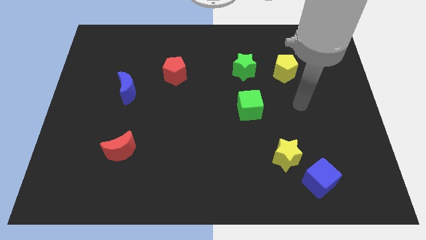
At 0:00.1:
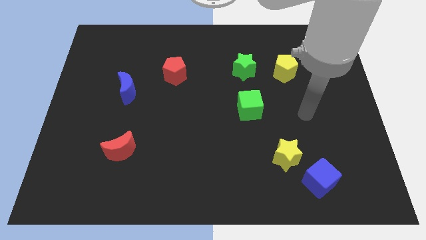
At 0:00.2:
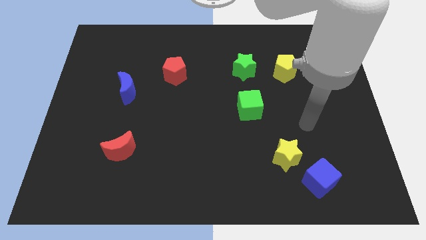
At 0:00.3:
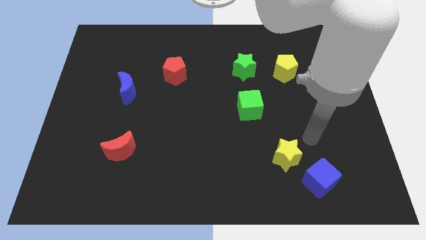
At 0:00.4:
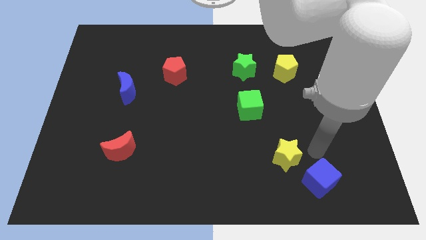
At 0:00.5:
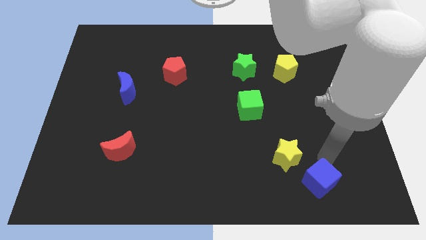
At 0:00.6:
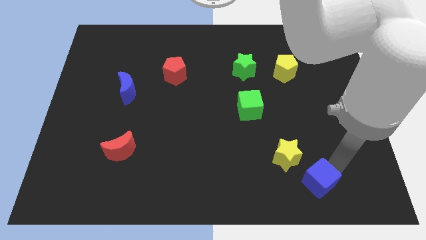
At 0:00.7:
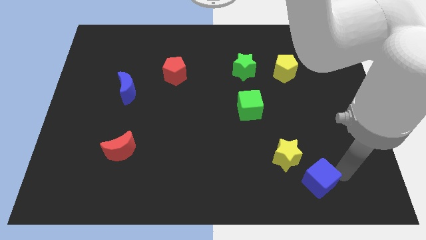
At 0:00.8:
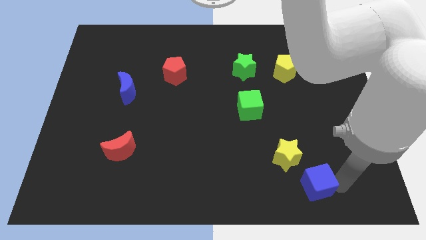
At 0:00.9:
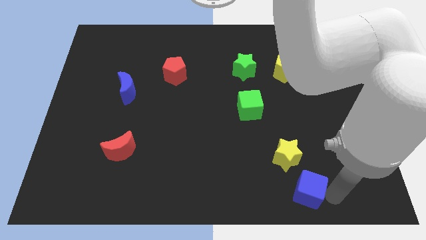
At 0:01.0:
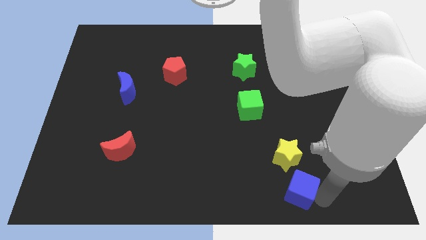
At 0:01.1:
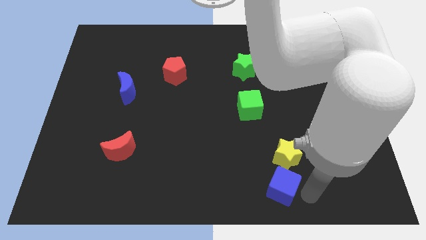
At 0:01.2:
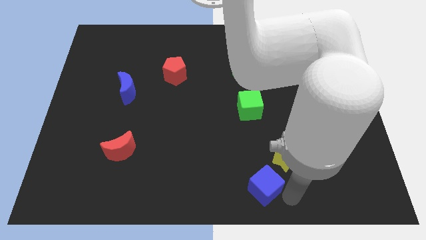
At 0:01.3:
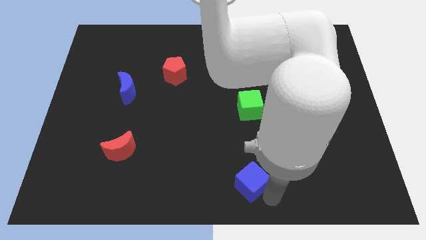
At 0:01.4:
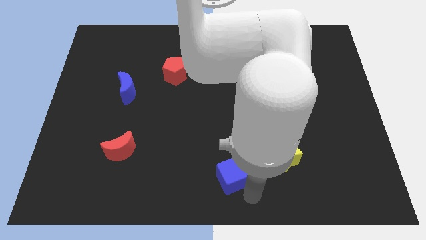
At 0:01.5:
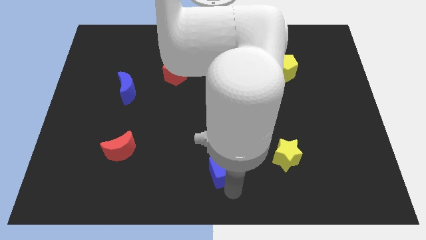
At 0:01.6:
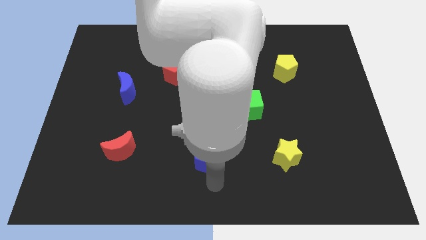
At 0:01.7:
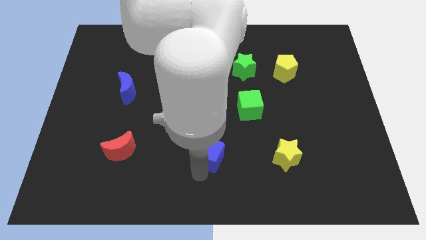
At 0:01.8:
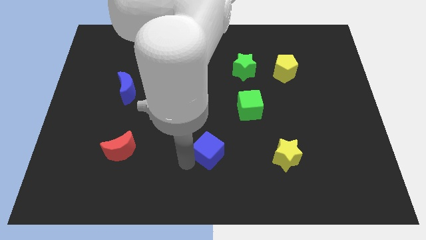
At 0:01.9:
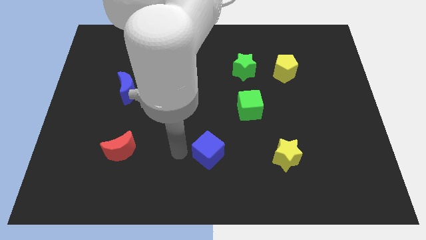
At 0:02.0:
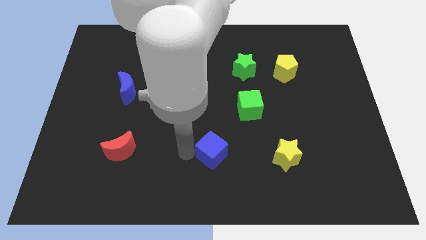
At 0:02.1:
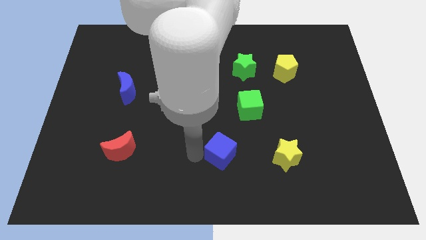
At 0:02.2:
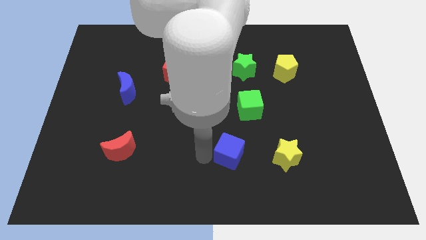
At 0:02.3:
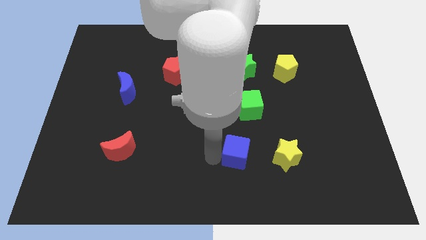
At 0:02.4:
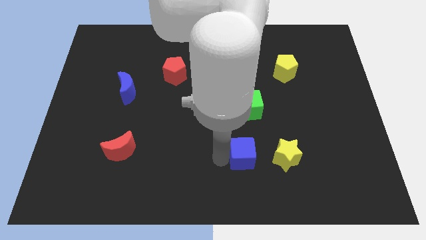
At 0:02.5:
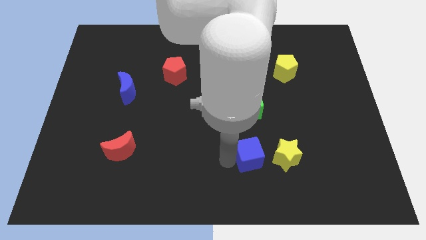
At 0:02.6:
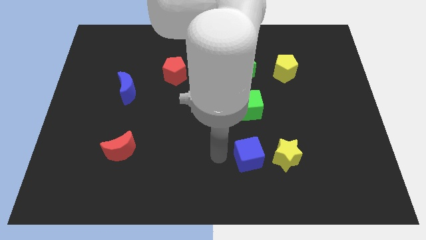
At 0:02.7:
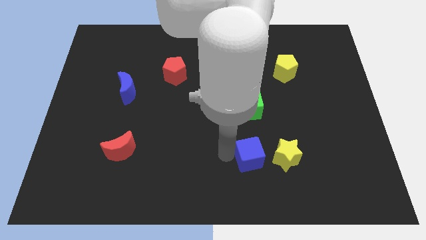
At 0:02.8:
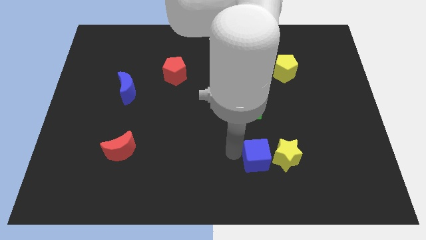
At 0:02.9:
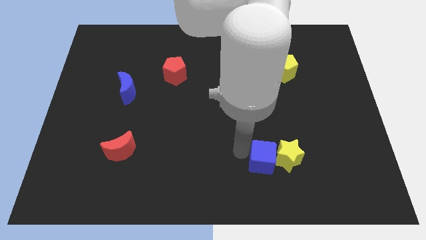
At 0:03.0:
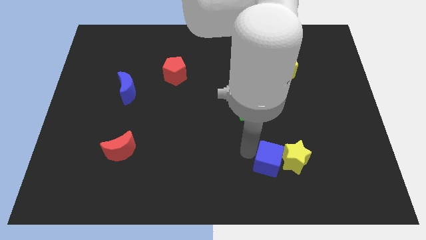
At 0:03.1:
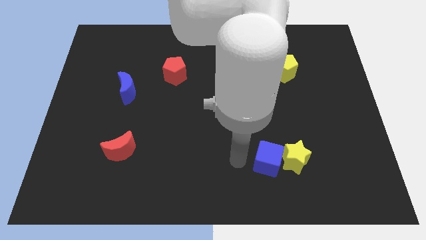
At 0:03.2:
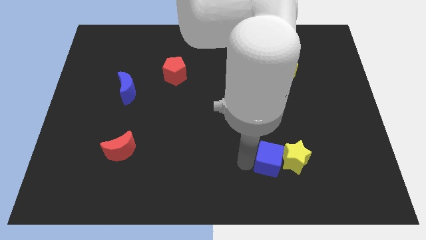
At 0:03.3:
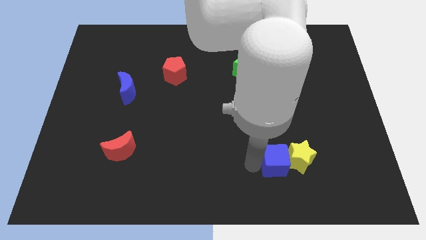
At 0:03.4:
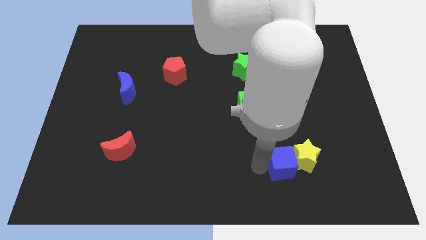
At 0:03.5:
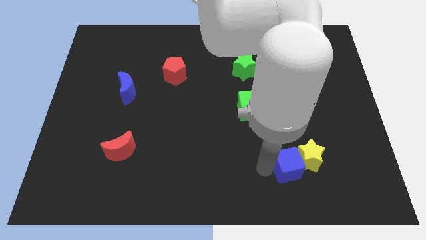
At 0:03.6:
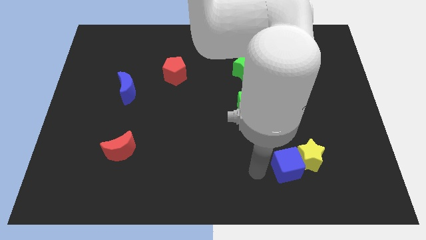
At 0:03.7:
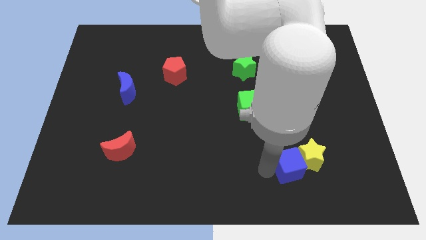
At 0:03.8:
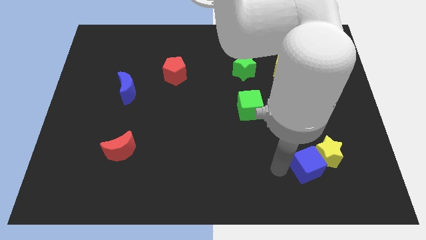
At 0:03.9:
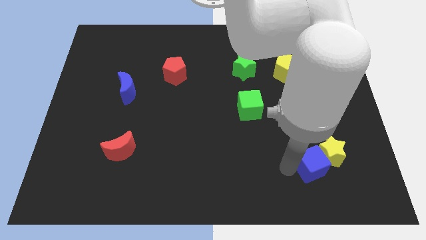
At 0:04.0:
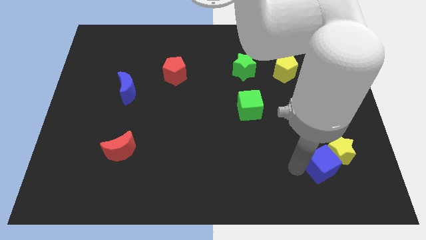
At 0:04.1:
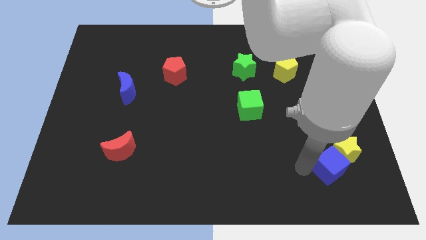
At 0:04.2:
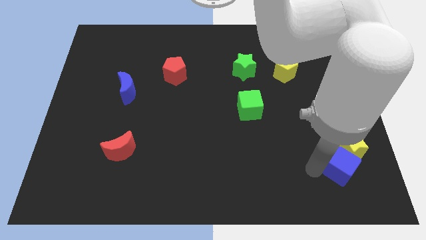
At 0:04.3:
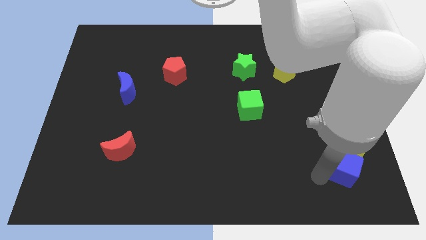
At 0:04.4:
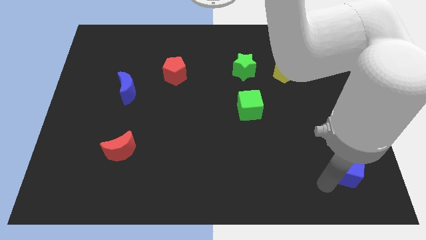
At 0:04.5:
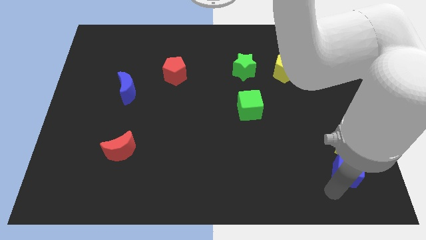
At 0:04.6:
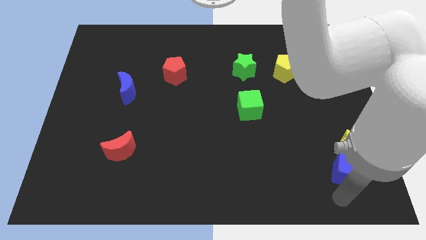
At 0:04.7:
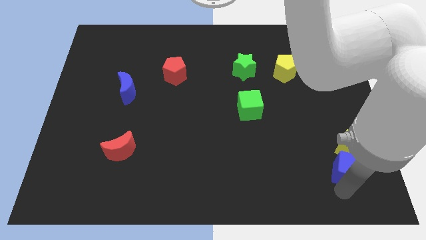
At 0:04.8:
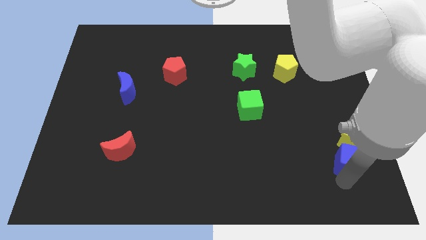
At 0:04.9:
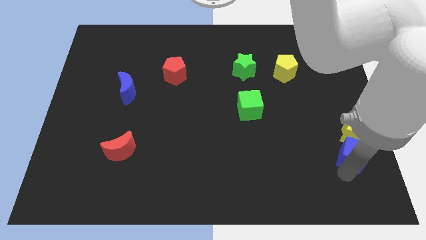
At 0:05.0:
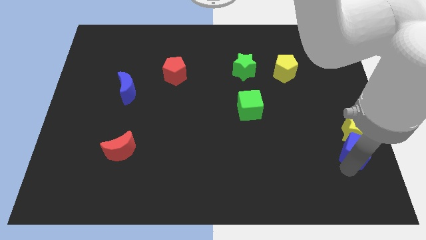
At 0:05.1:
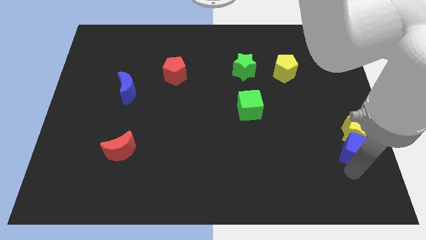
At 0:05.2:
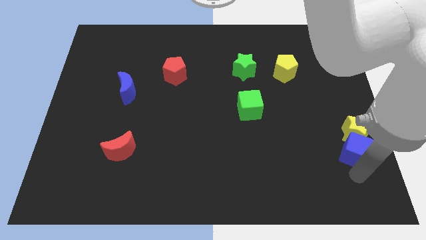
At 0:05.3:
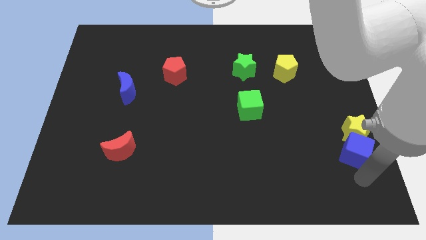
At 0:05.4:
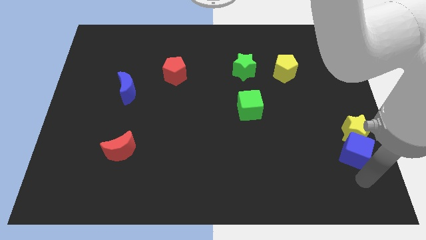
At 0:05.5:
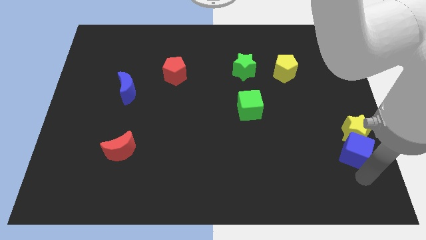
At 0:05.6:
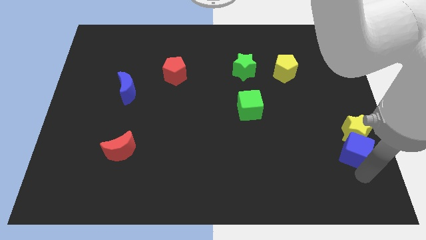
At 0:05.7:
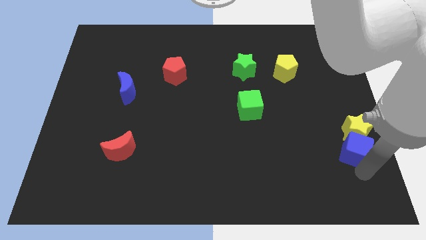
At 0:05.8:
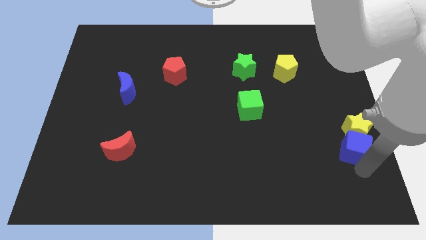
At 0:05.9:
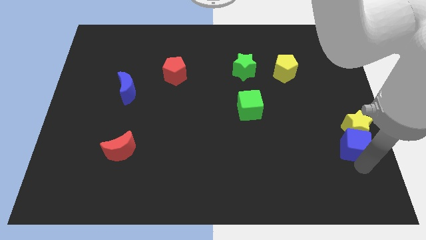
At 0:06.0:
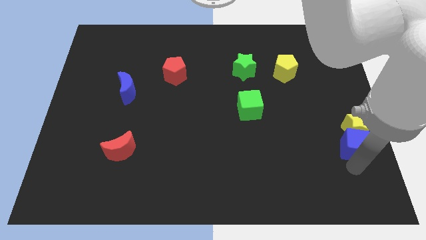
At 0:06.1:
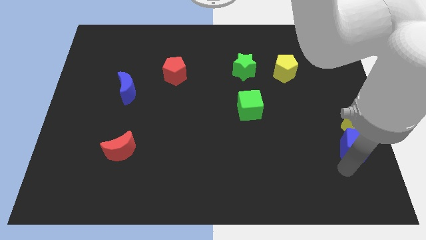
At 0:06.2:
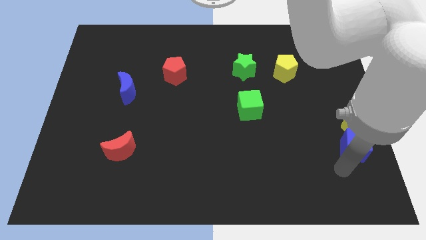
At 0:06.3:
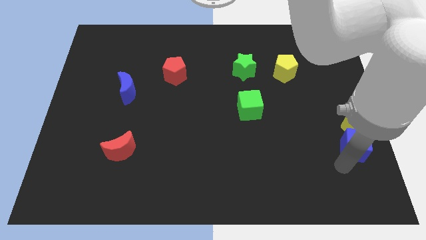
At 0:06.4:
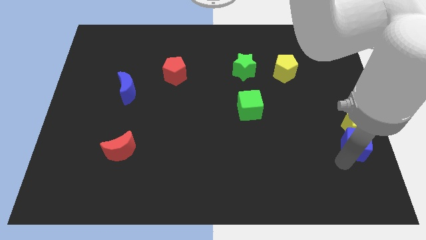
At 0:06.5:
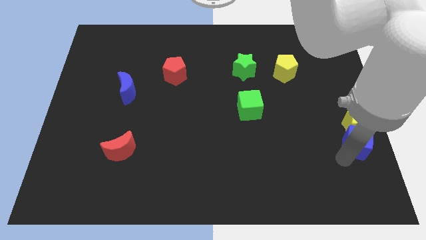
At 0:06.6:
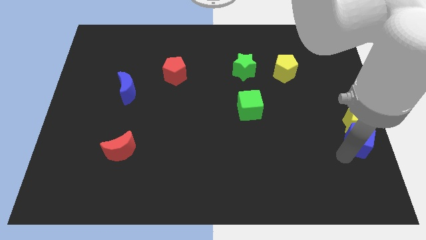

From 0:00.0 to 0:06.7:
put the blue cube to the right side of the board

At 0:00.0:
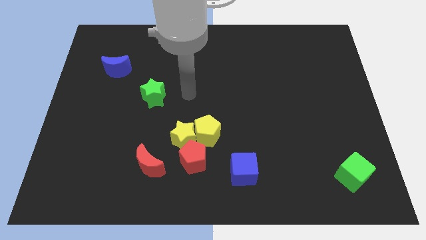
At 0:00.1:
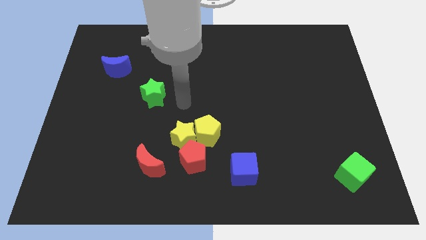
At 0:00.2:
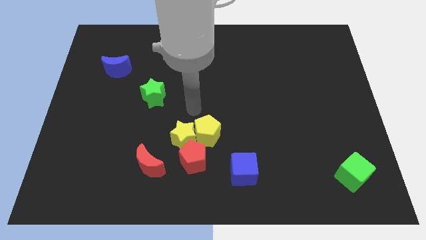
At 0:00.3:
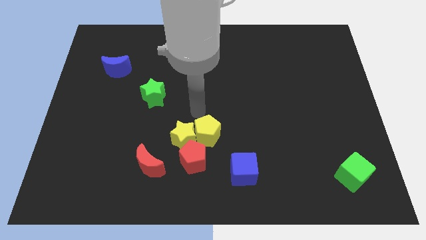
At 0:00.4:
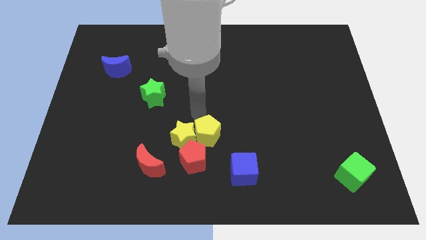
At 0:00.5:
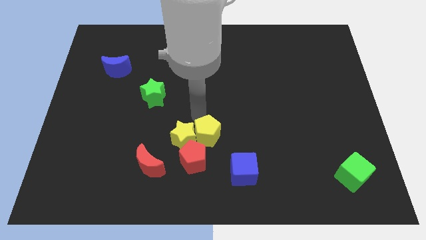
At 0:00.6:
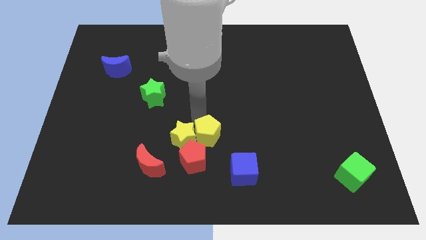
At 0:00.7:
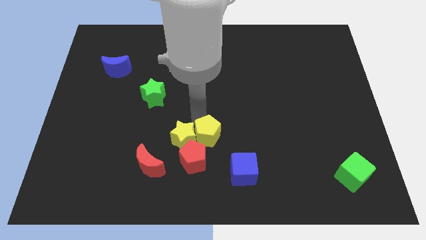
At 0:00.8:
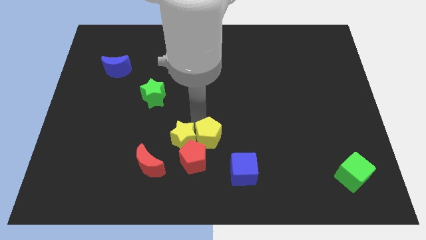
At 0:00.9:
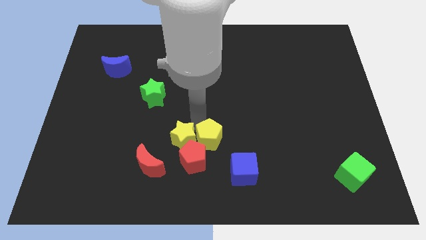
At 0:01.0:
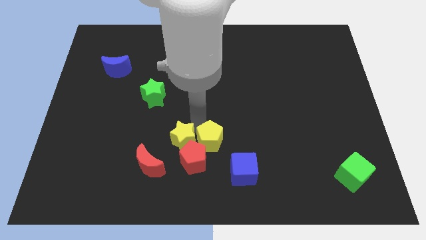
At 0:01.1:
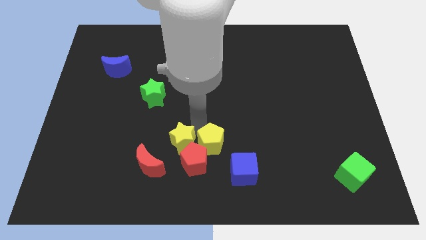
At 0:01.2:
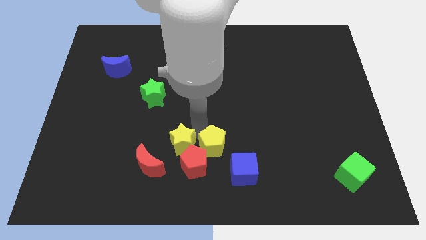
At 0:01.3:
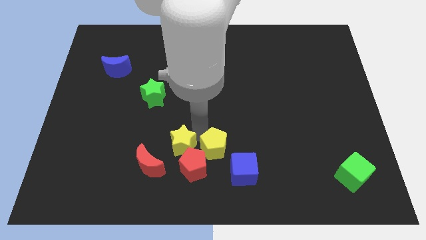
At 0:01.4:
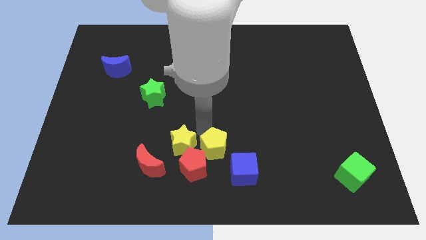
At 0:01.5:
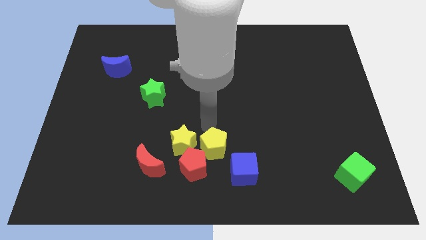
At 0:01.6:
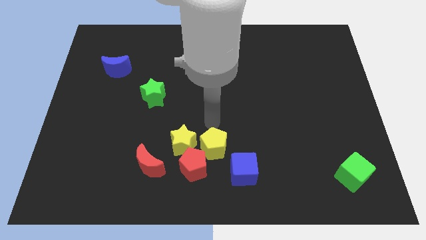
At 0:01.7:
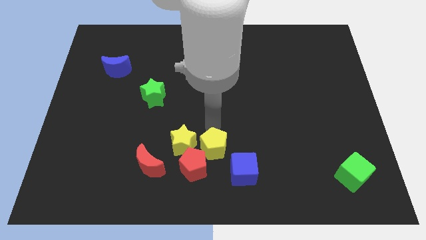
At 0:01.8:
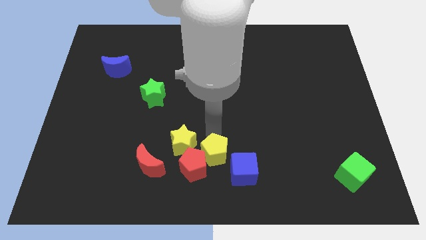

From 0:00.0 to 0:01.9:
push the yellow pentagon to the bottom side
